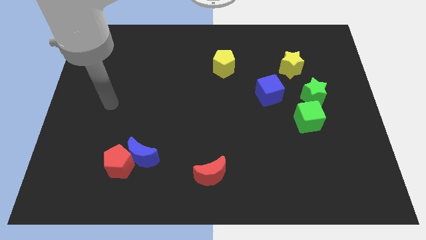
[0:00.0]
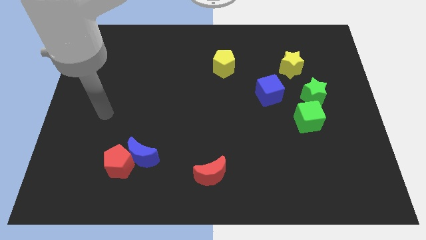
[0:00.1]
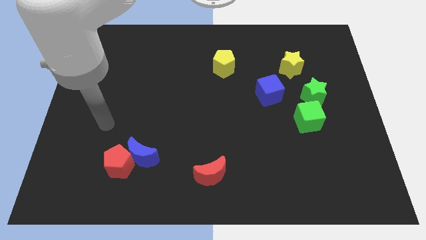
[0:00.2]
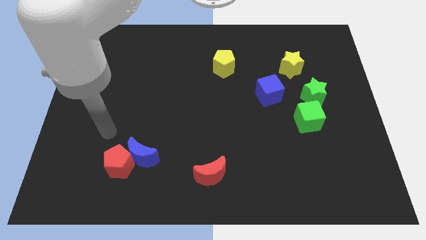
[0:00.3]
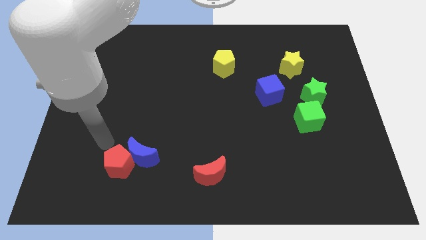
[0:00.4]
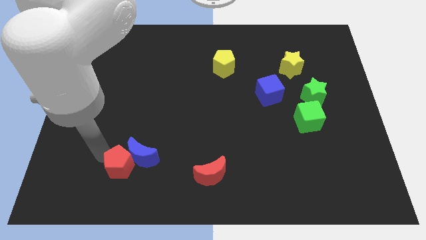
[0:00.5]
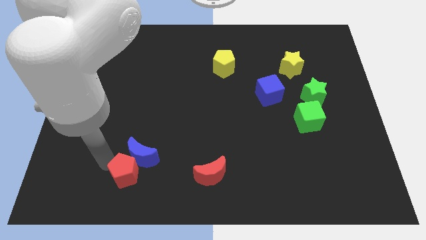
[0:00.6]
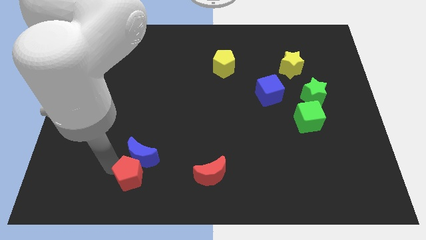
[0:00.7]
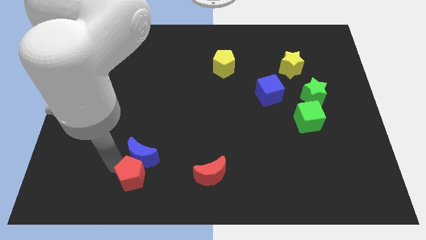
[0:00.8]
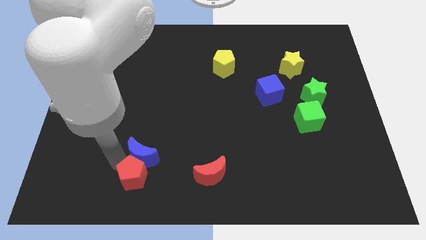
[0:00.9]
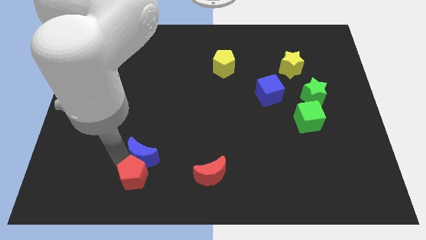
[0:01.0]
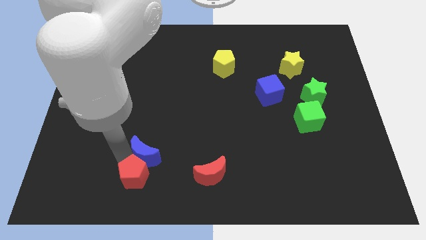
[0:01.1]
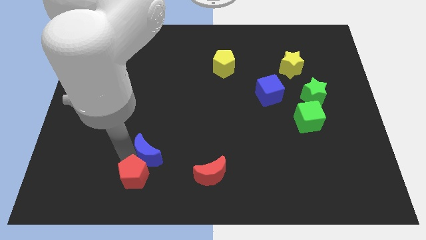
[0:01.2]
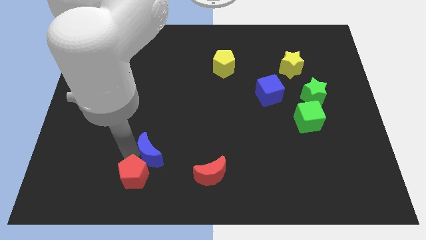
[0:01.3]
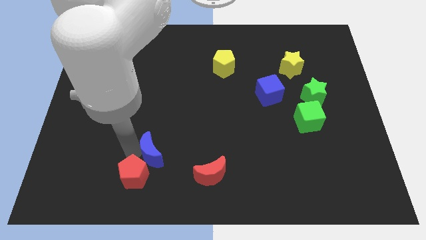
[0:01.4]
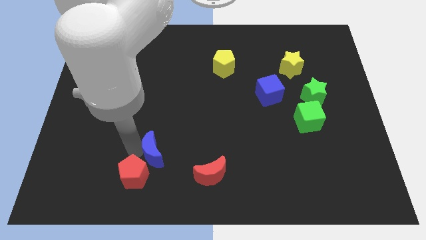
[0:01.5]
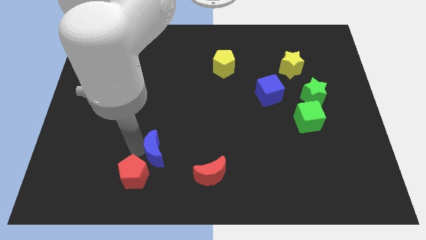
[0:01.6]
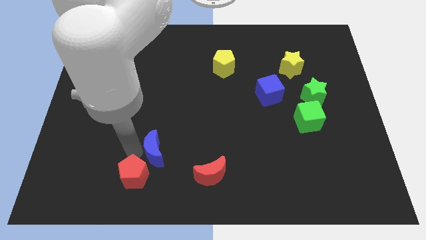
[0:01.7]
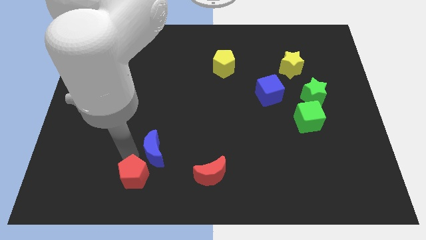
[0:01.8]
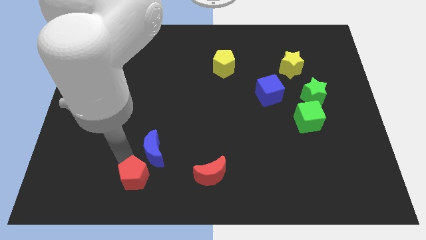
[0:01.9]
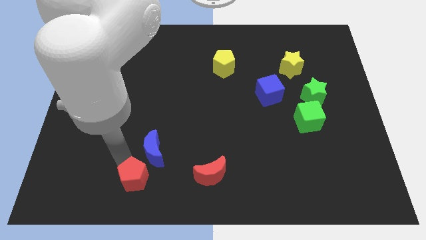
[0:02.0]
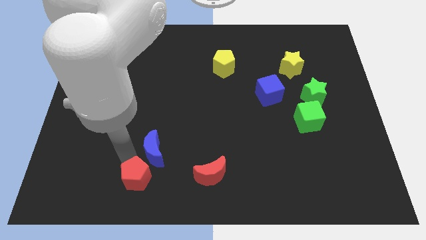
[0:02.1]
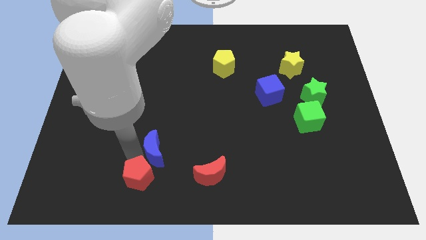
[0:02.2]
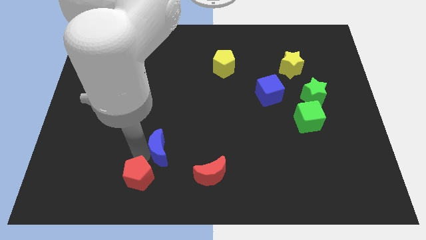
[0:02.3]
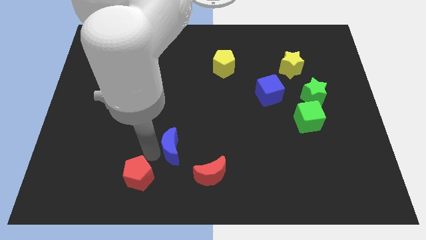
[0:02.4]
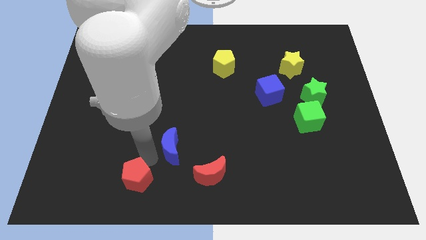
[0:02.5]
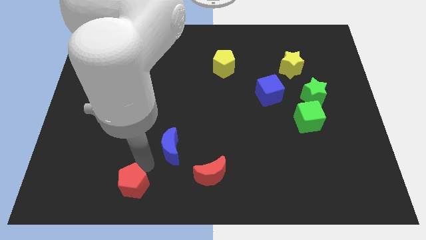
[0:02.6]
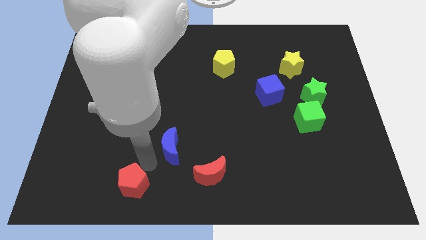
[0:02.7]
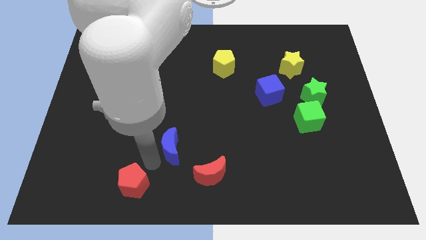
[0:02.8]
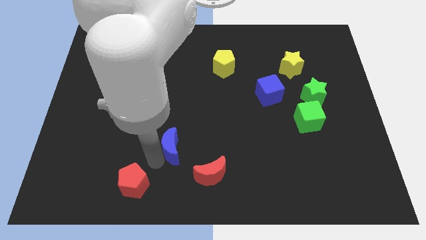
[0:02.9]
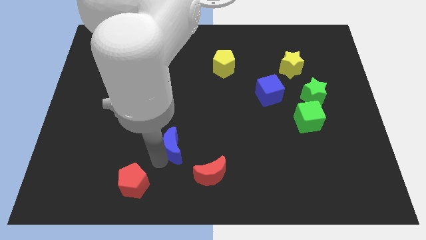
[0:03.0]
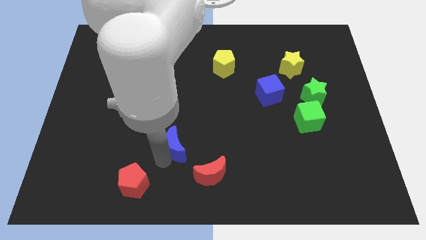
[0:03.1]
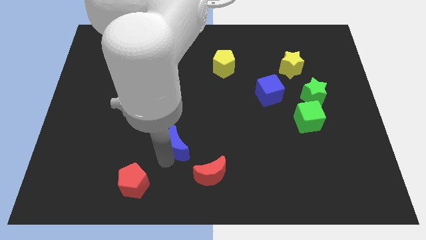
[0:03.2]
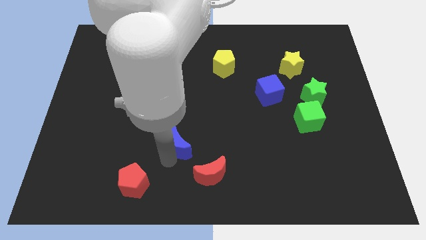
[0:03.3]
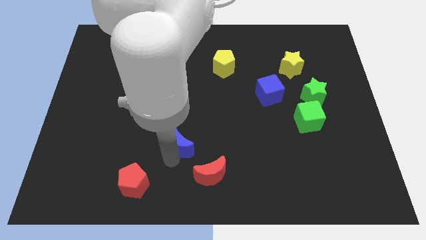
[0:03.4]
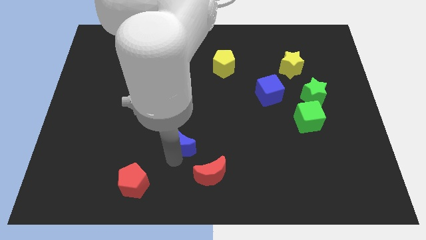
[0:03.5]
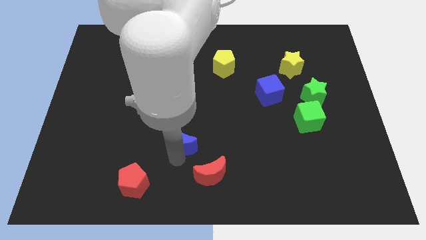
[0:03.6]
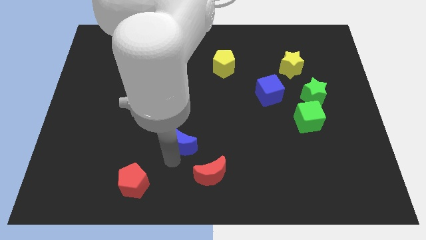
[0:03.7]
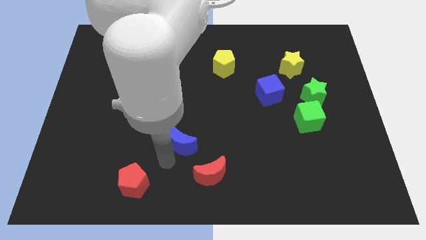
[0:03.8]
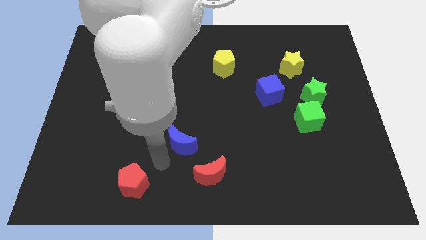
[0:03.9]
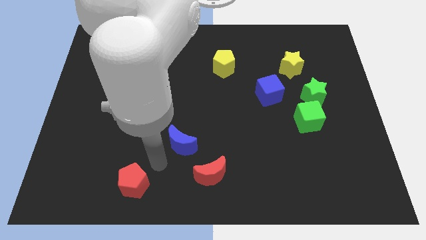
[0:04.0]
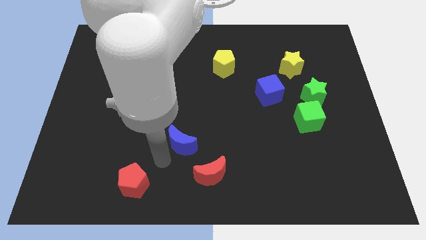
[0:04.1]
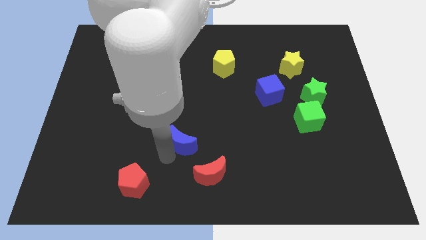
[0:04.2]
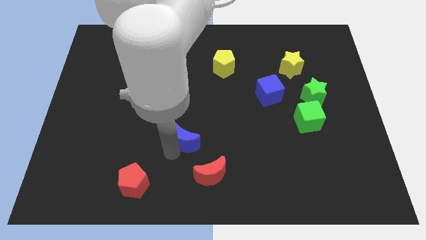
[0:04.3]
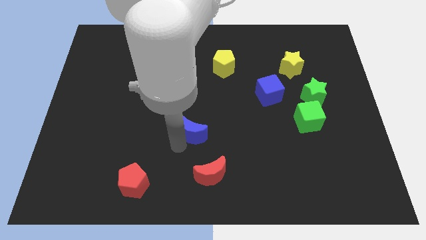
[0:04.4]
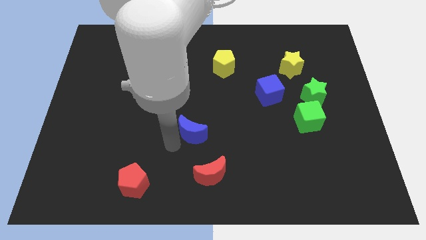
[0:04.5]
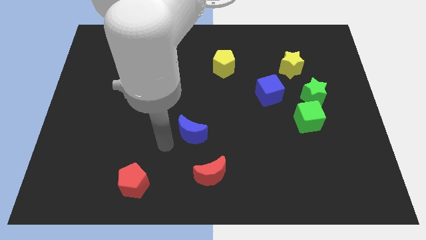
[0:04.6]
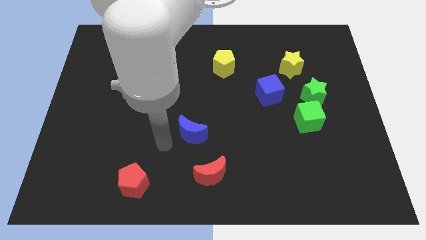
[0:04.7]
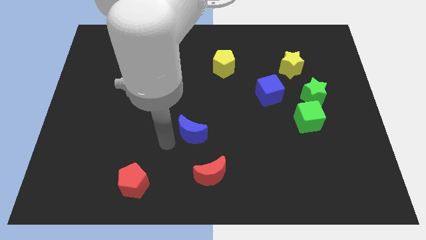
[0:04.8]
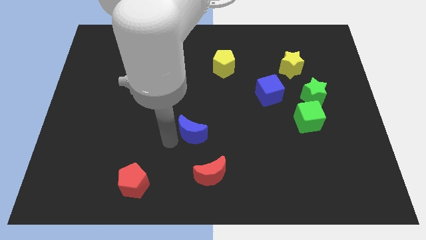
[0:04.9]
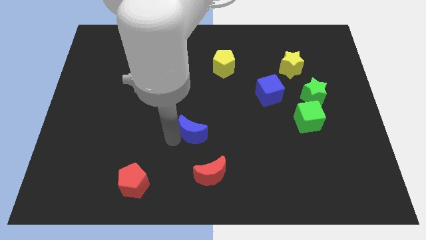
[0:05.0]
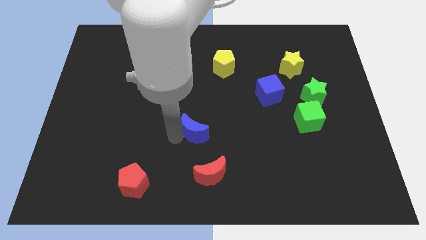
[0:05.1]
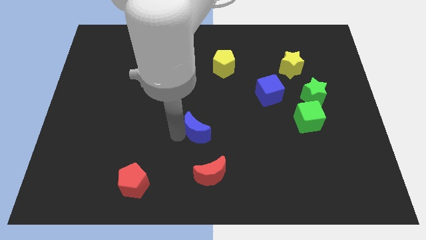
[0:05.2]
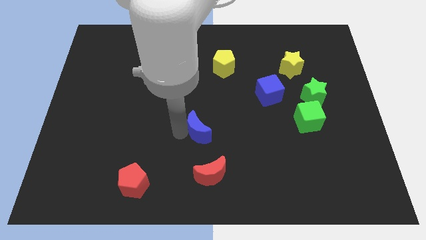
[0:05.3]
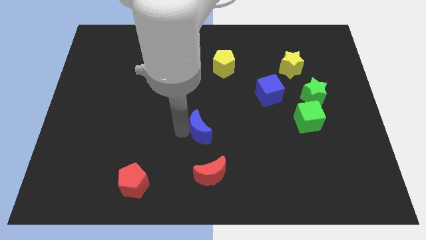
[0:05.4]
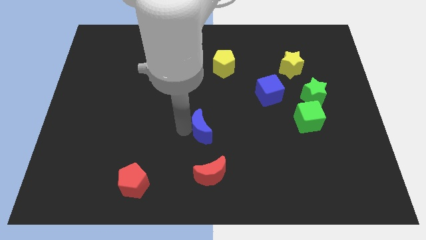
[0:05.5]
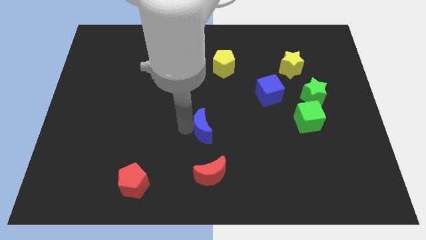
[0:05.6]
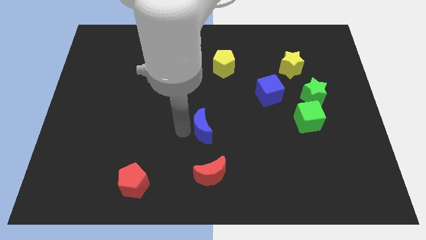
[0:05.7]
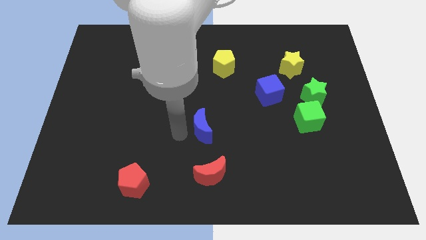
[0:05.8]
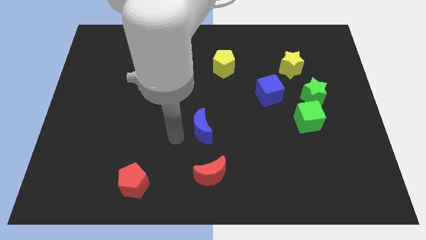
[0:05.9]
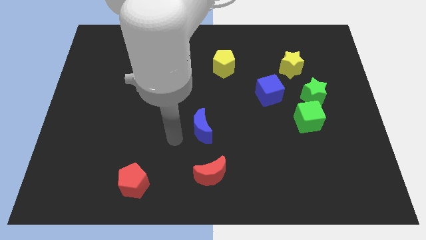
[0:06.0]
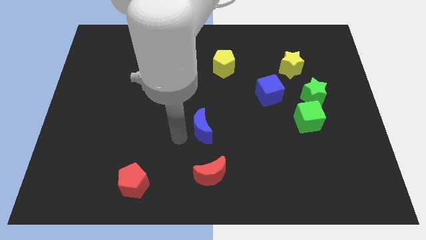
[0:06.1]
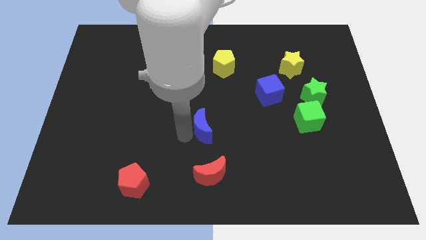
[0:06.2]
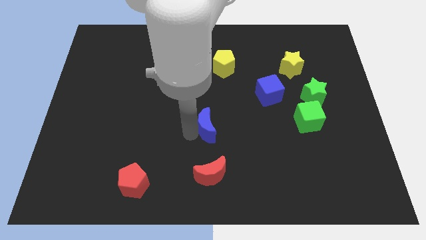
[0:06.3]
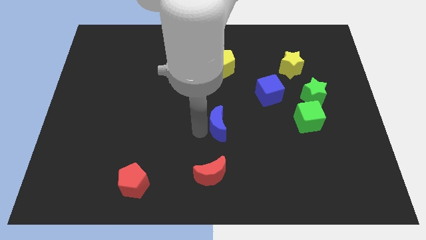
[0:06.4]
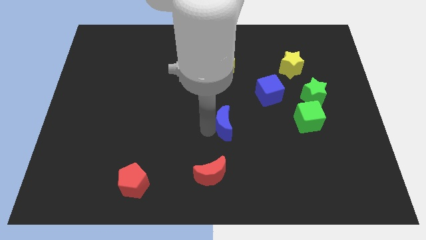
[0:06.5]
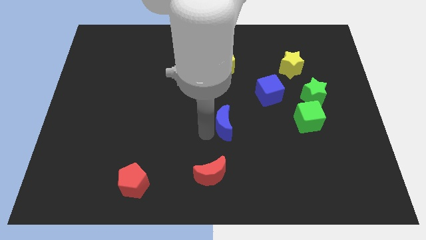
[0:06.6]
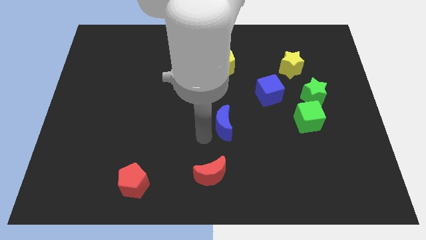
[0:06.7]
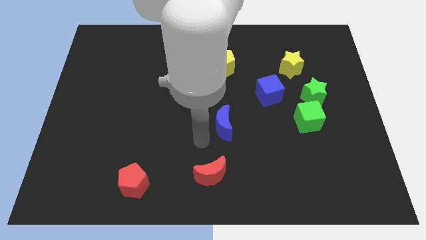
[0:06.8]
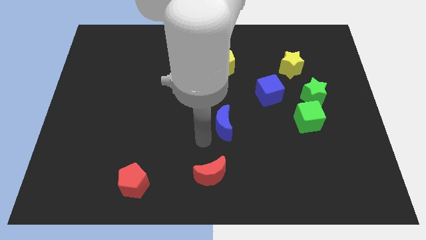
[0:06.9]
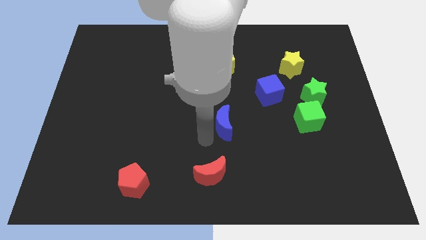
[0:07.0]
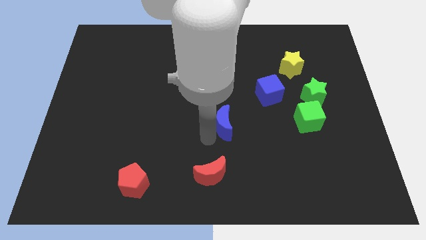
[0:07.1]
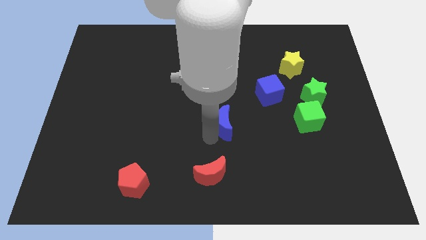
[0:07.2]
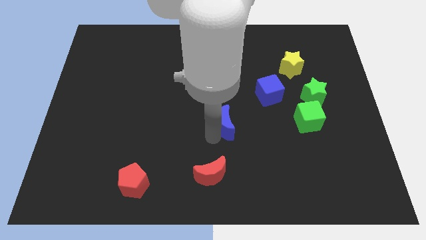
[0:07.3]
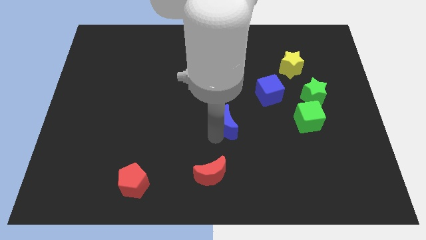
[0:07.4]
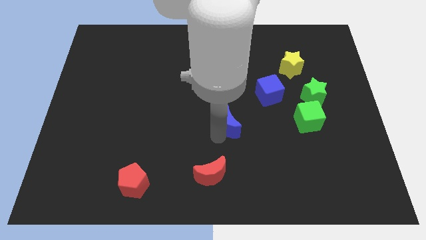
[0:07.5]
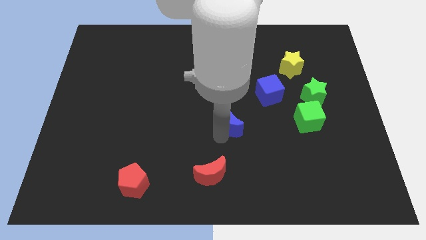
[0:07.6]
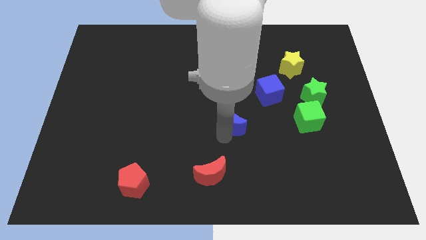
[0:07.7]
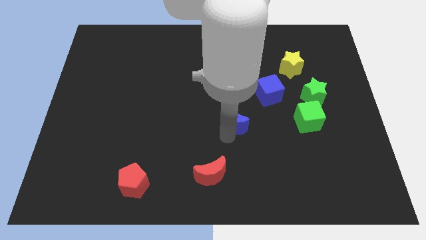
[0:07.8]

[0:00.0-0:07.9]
slide the blue moon to the bottom left of the blue cube
